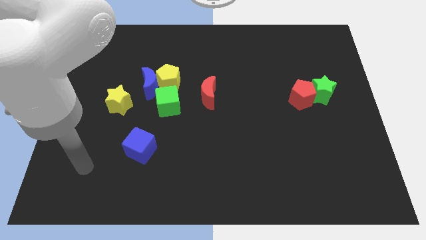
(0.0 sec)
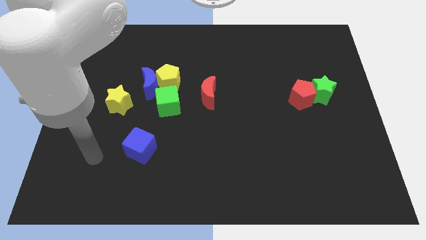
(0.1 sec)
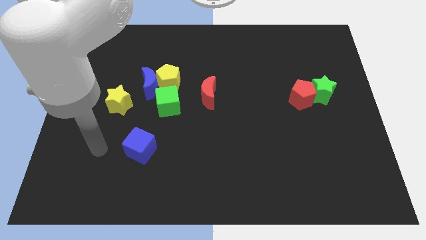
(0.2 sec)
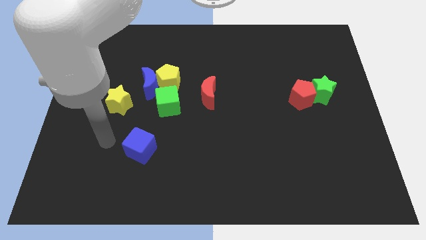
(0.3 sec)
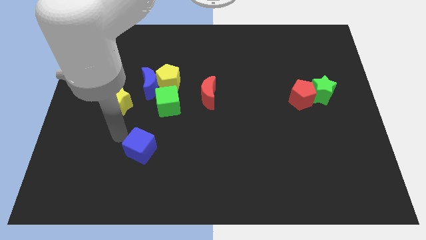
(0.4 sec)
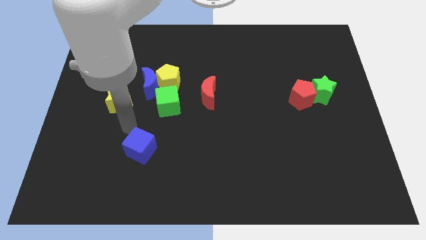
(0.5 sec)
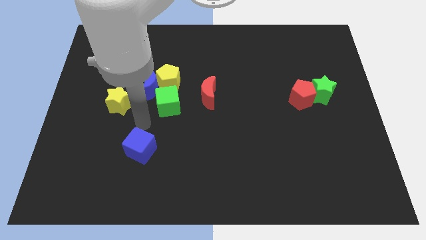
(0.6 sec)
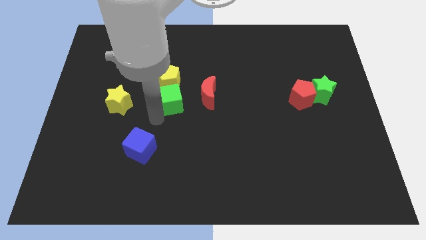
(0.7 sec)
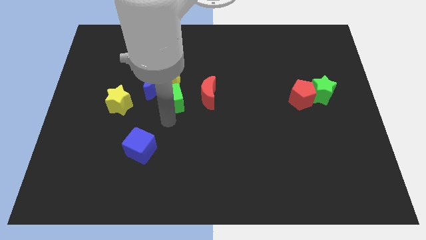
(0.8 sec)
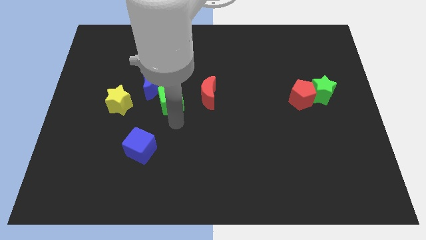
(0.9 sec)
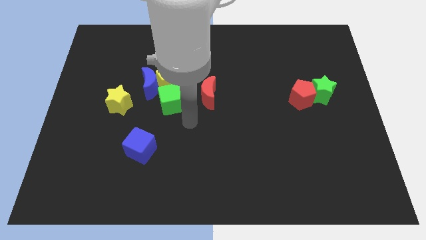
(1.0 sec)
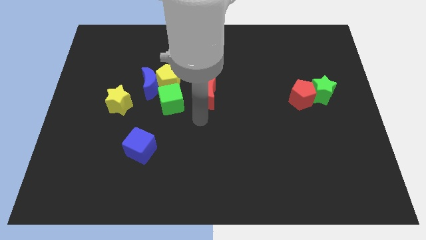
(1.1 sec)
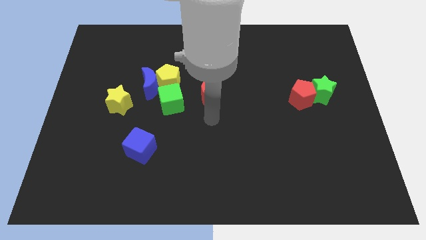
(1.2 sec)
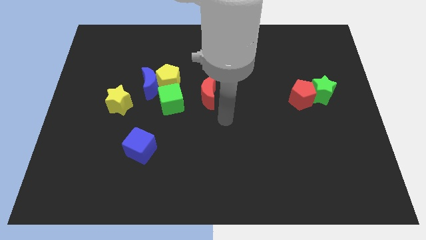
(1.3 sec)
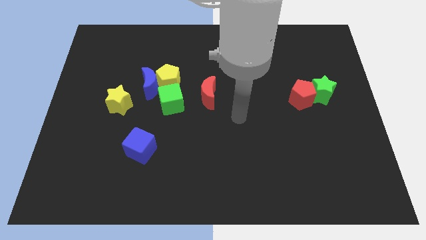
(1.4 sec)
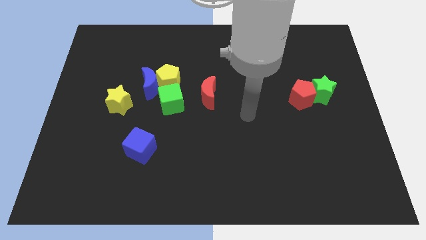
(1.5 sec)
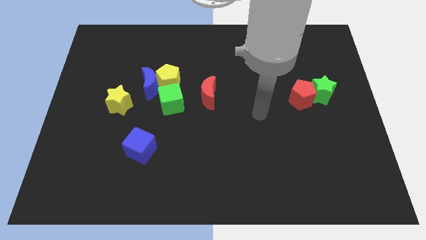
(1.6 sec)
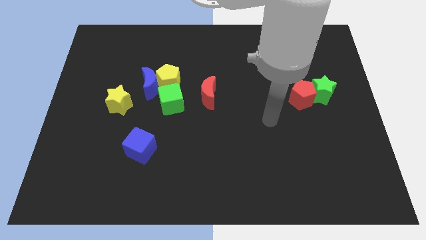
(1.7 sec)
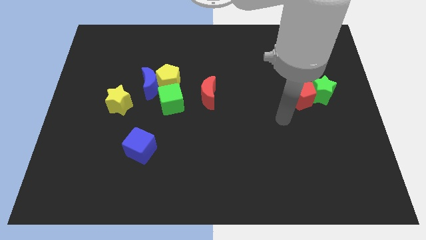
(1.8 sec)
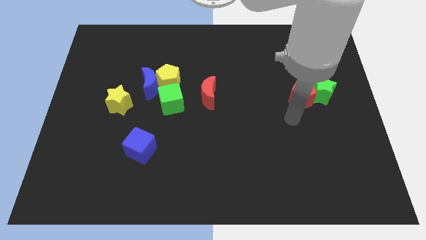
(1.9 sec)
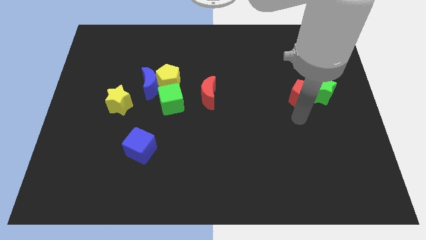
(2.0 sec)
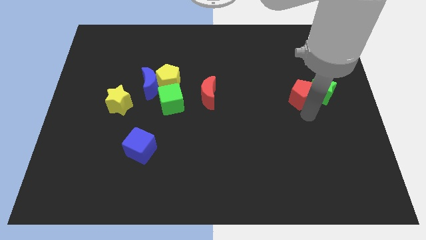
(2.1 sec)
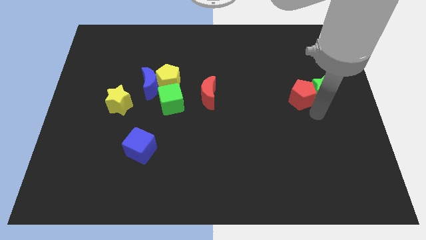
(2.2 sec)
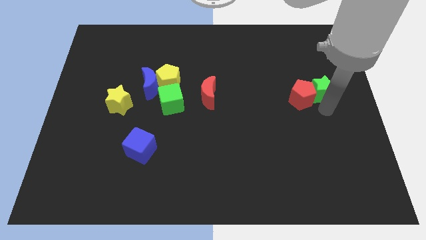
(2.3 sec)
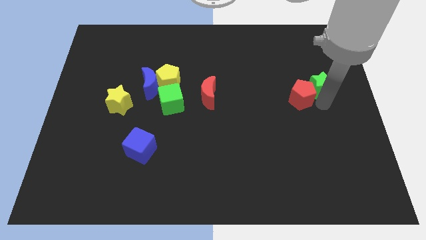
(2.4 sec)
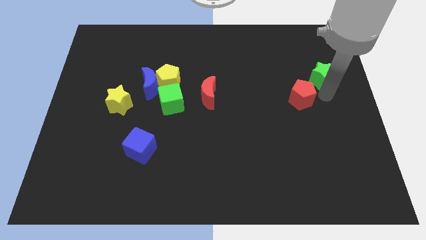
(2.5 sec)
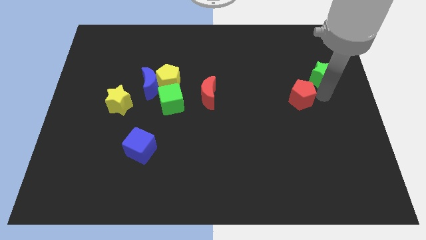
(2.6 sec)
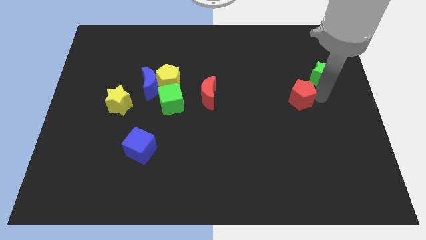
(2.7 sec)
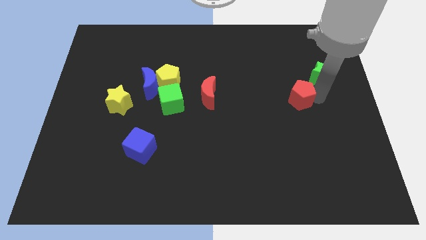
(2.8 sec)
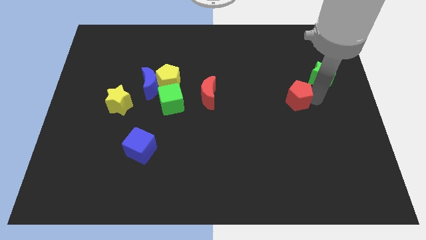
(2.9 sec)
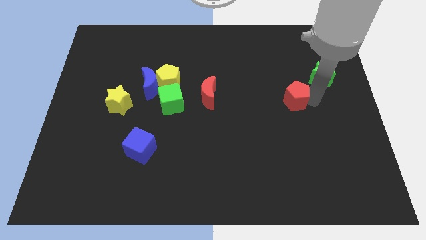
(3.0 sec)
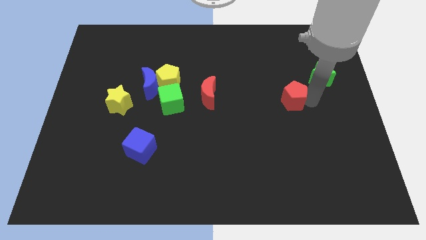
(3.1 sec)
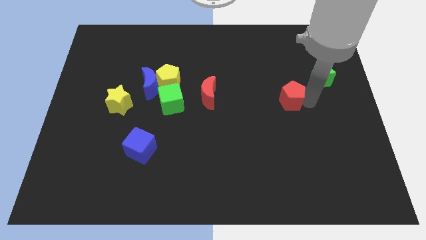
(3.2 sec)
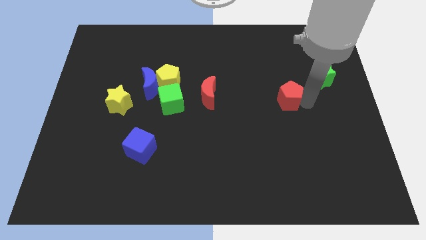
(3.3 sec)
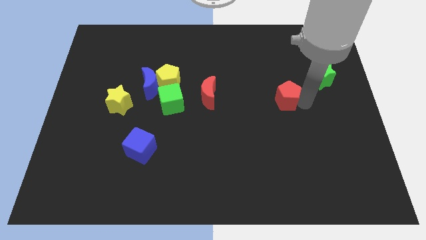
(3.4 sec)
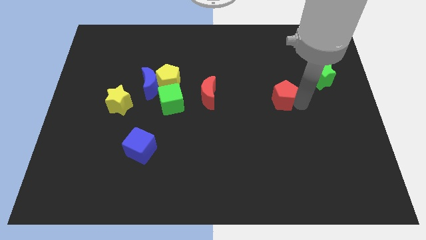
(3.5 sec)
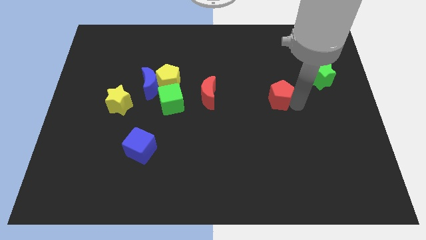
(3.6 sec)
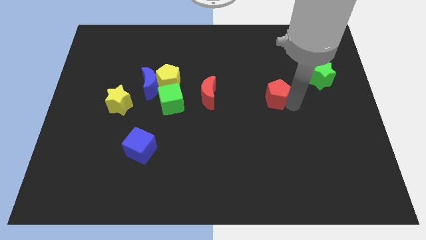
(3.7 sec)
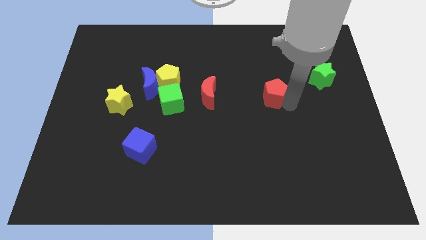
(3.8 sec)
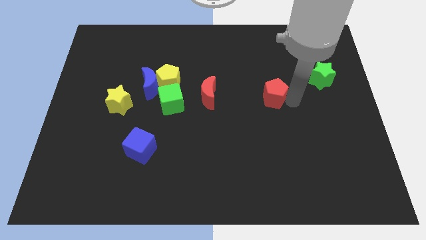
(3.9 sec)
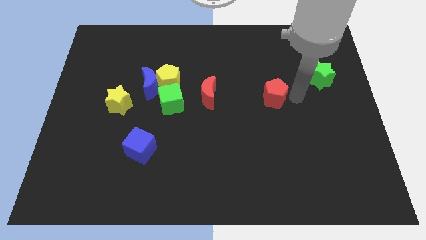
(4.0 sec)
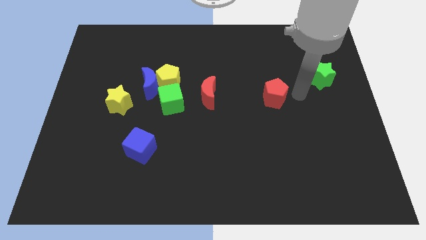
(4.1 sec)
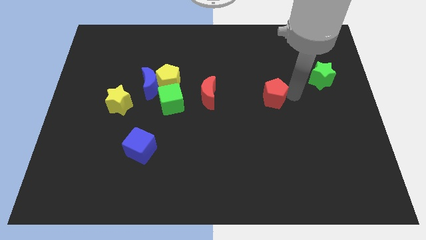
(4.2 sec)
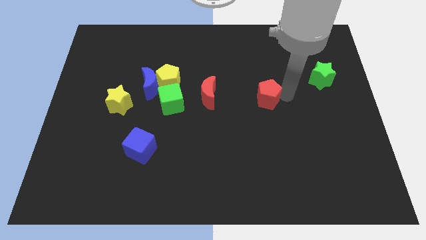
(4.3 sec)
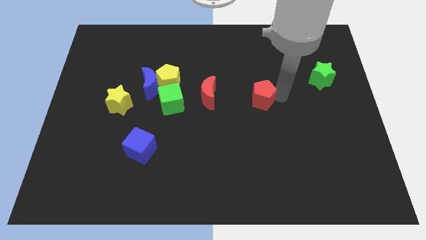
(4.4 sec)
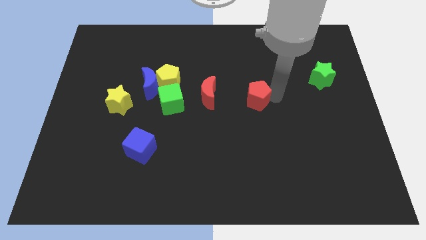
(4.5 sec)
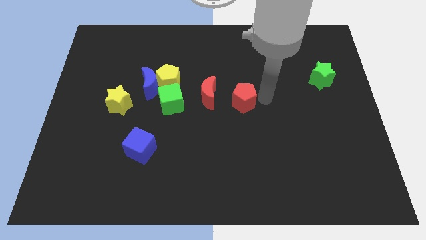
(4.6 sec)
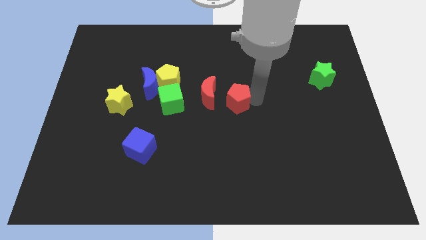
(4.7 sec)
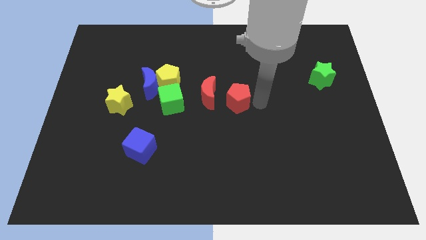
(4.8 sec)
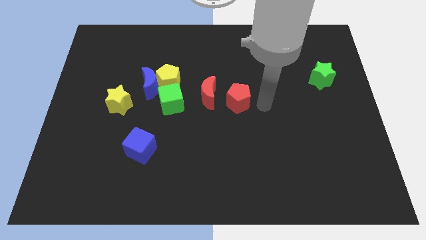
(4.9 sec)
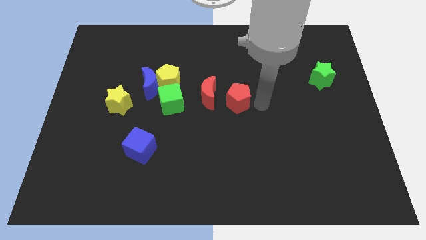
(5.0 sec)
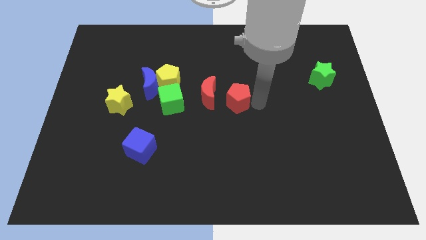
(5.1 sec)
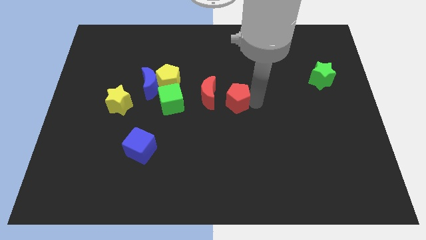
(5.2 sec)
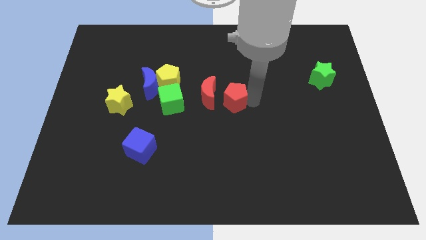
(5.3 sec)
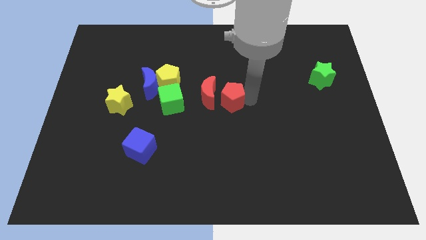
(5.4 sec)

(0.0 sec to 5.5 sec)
put the red pentagon to the red moon

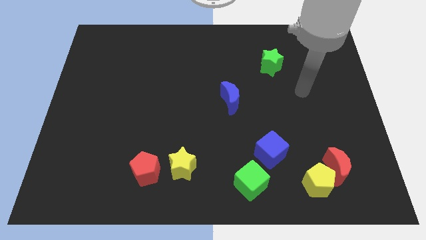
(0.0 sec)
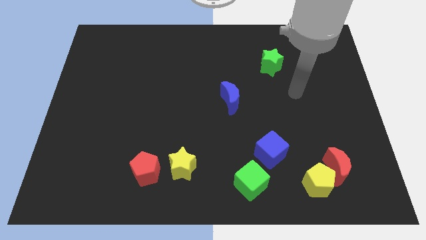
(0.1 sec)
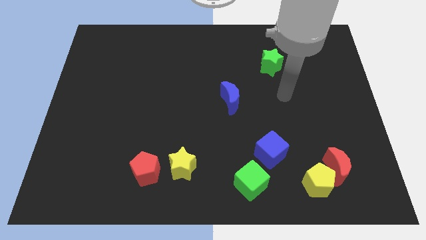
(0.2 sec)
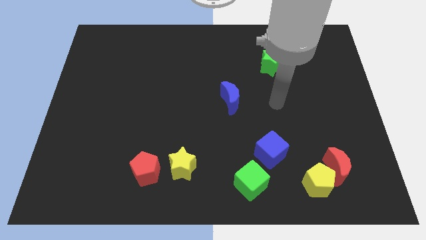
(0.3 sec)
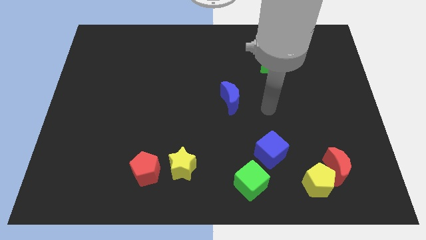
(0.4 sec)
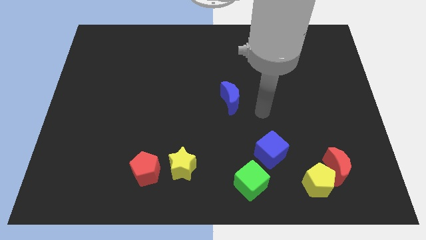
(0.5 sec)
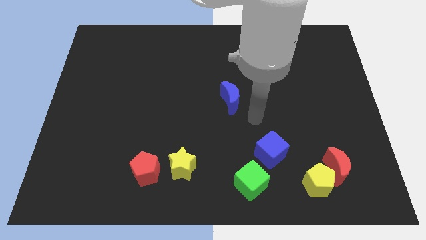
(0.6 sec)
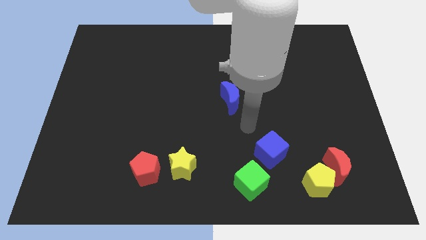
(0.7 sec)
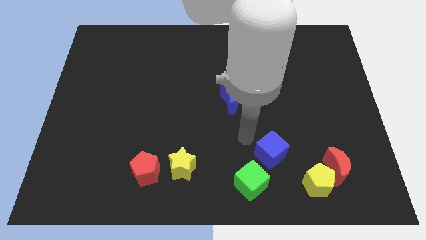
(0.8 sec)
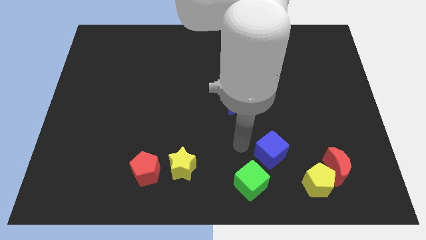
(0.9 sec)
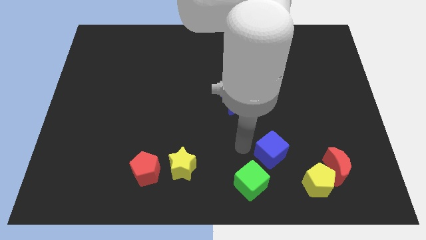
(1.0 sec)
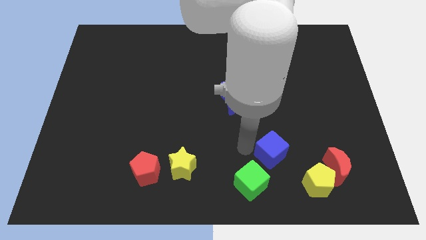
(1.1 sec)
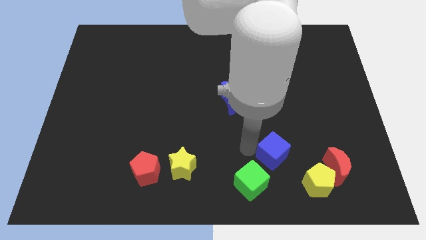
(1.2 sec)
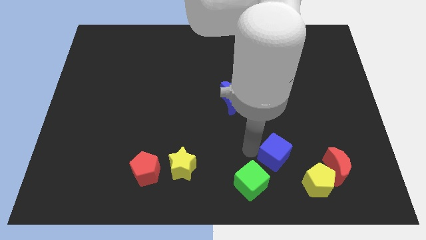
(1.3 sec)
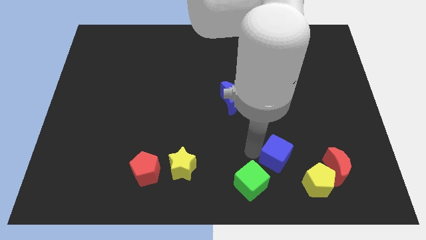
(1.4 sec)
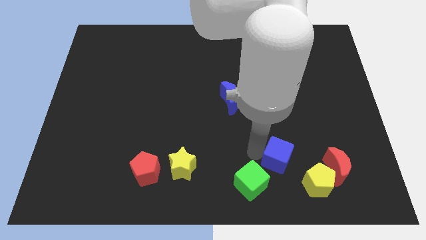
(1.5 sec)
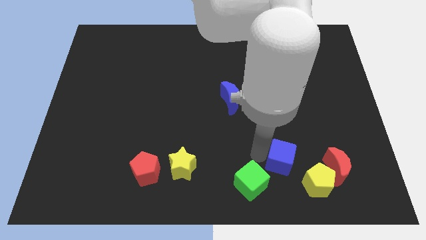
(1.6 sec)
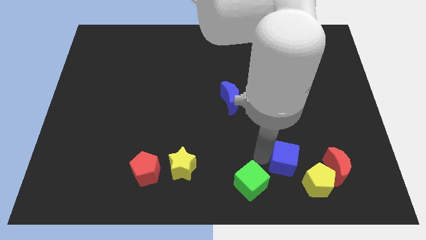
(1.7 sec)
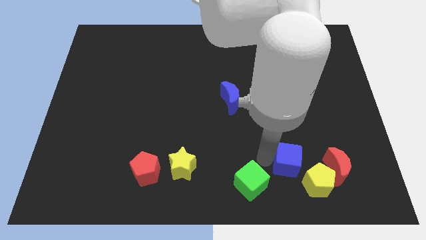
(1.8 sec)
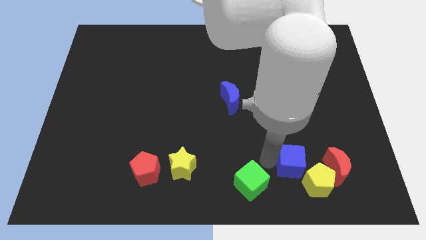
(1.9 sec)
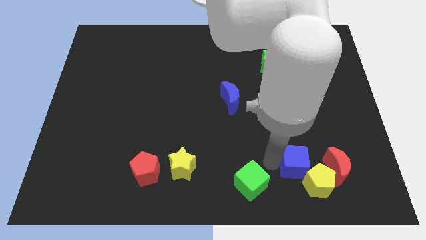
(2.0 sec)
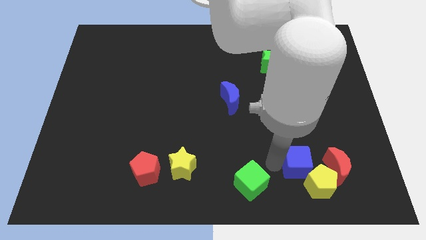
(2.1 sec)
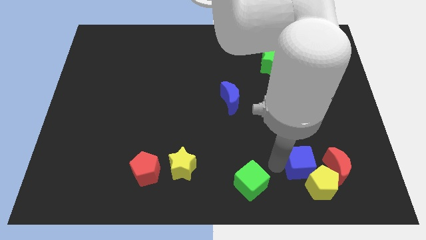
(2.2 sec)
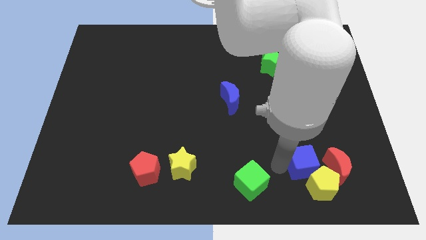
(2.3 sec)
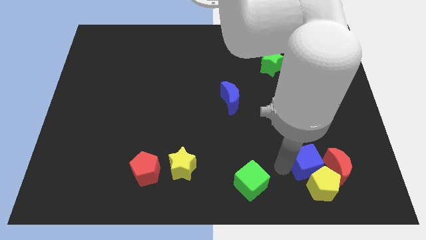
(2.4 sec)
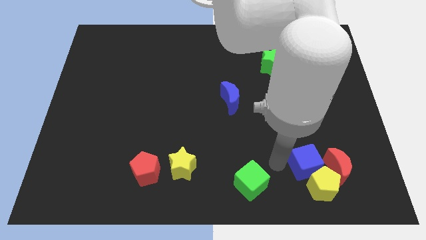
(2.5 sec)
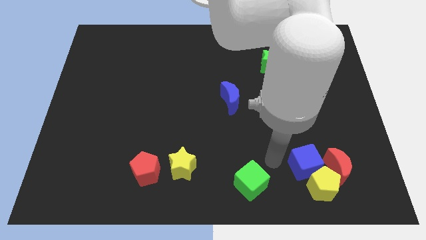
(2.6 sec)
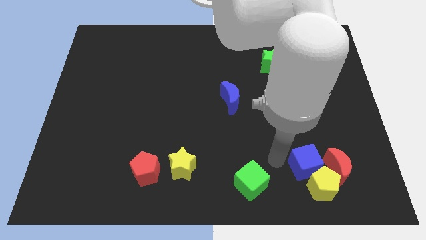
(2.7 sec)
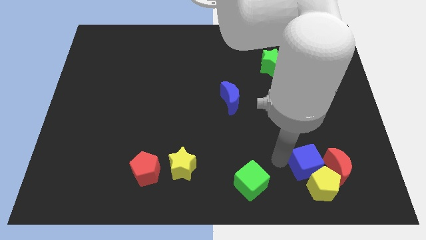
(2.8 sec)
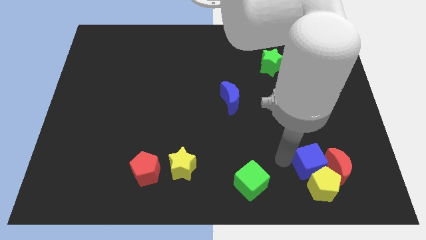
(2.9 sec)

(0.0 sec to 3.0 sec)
move the blue cube towards the red moon
